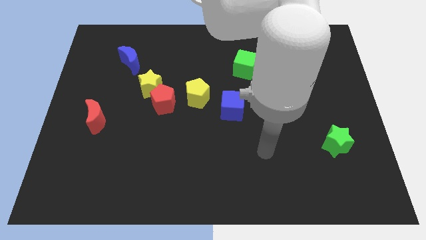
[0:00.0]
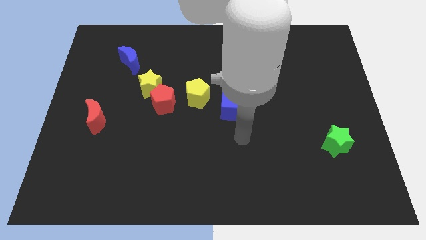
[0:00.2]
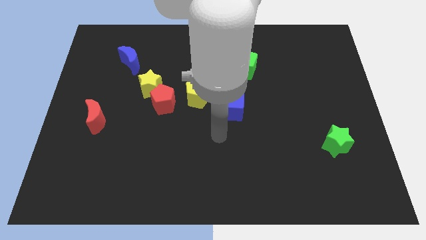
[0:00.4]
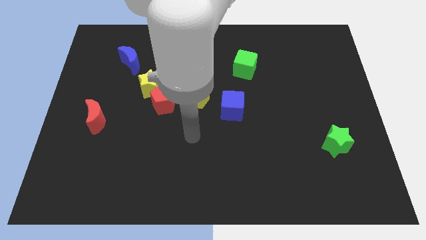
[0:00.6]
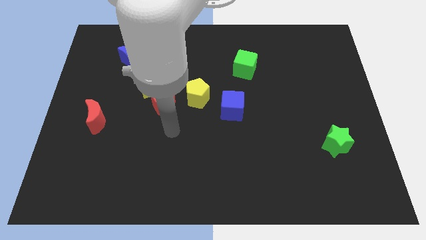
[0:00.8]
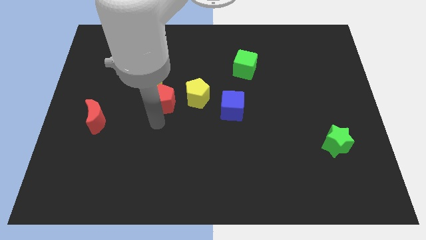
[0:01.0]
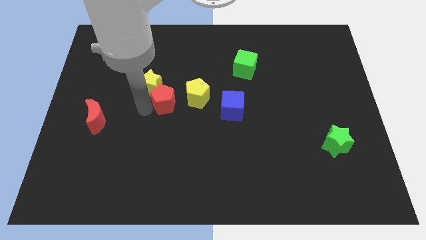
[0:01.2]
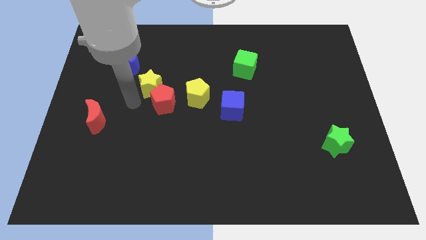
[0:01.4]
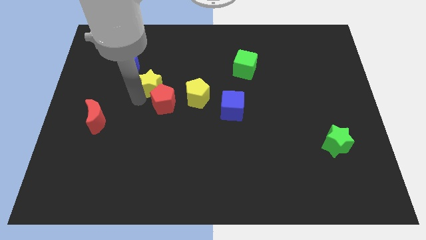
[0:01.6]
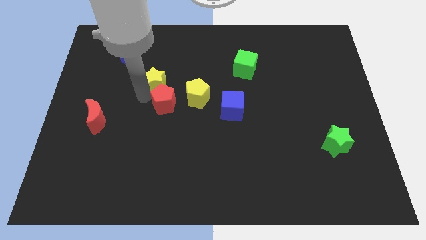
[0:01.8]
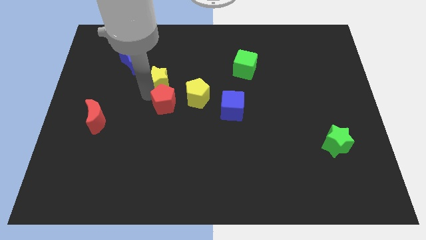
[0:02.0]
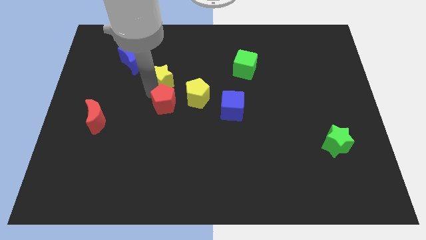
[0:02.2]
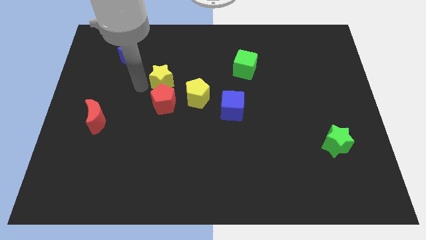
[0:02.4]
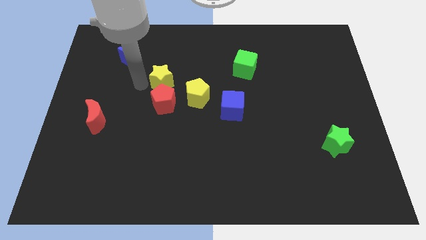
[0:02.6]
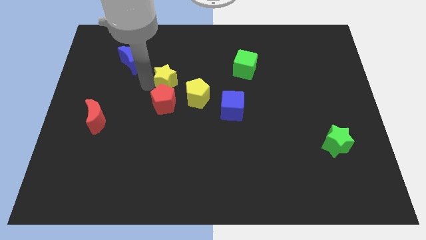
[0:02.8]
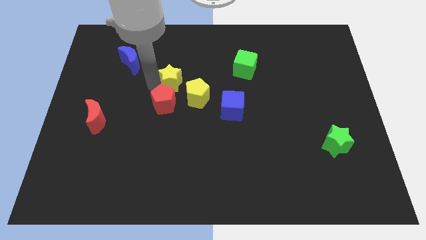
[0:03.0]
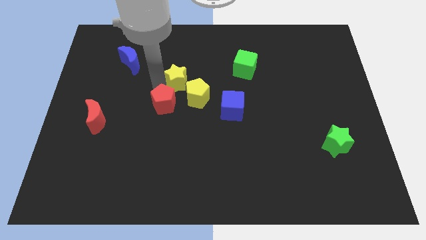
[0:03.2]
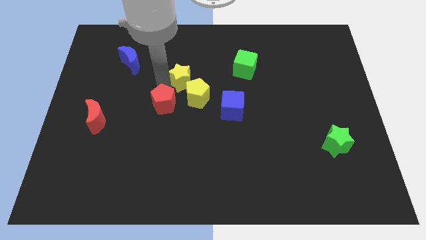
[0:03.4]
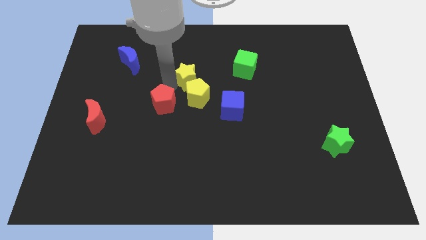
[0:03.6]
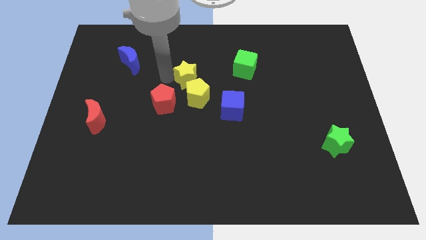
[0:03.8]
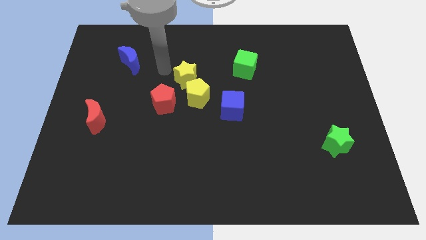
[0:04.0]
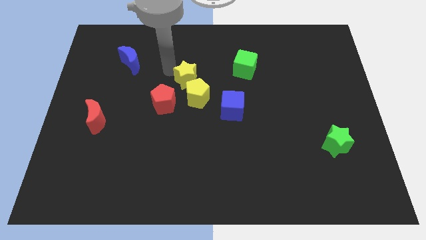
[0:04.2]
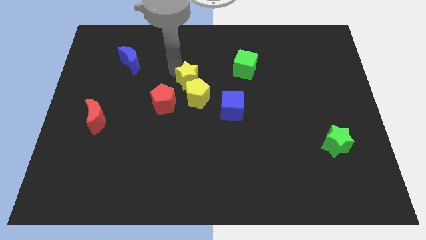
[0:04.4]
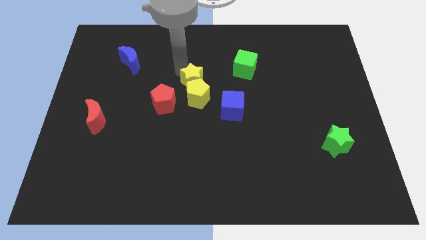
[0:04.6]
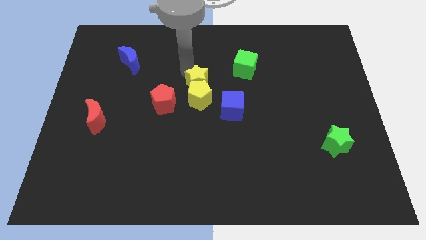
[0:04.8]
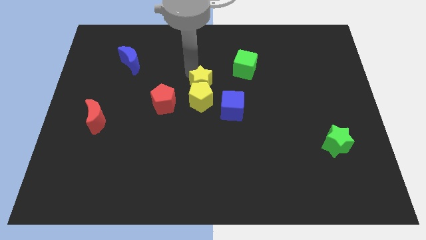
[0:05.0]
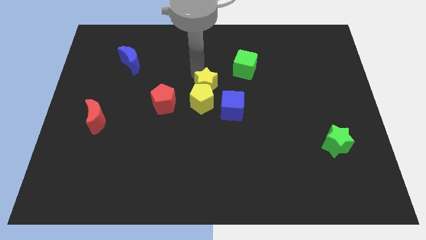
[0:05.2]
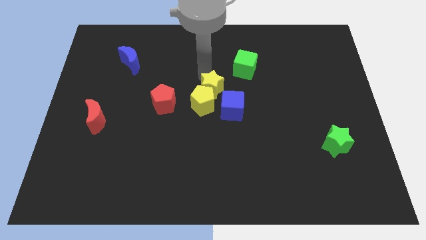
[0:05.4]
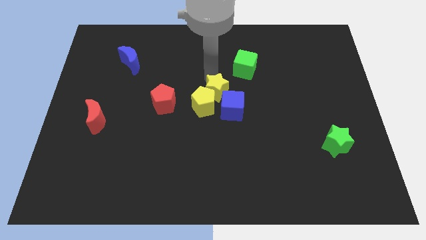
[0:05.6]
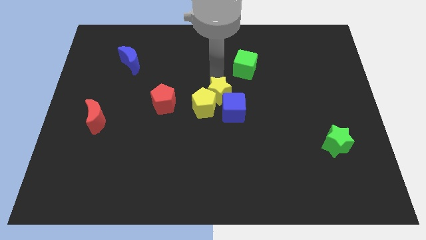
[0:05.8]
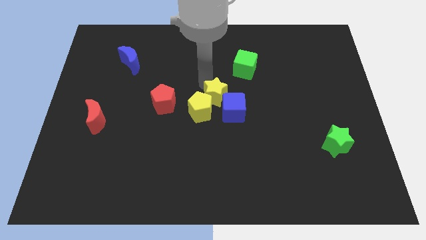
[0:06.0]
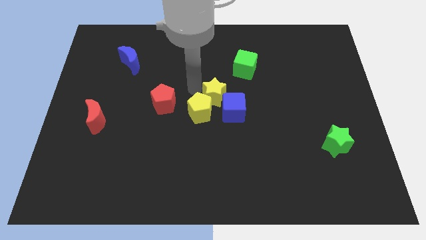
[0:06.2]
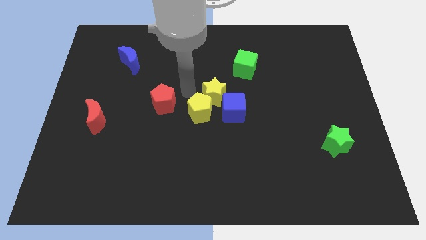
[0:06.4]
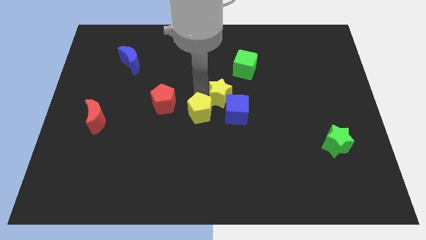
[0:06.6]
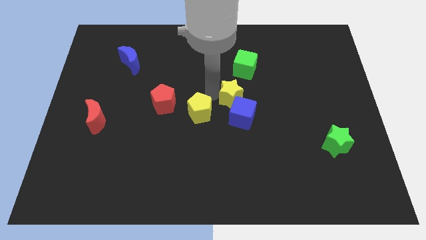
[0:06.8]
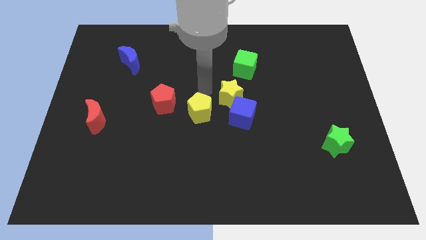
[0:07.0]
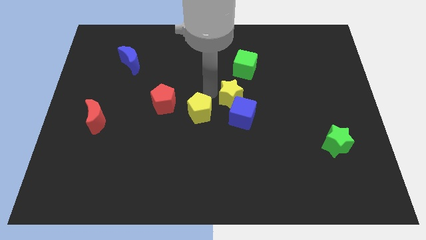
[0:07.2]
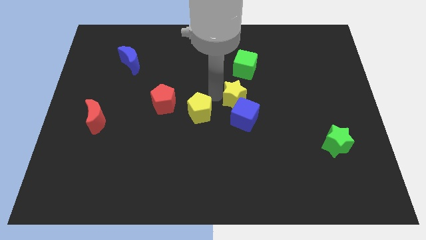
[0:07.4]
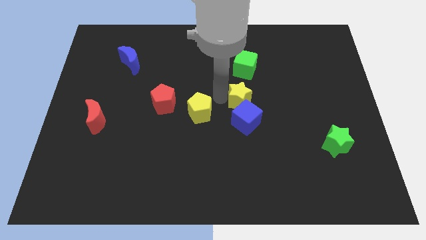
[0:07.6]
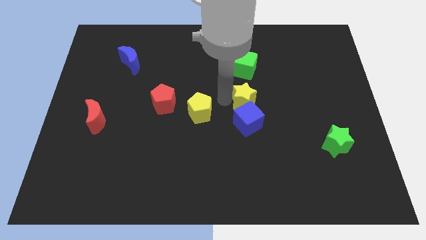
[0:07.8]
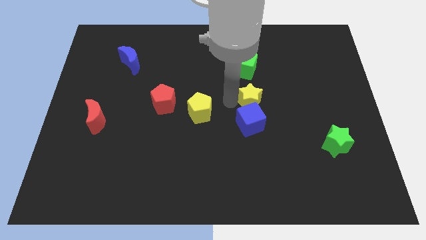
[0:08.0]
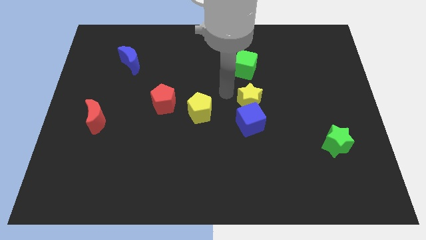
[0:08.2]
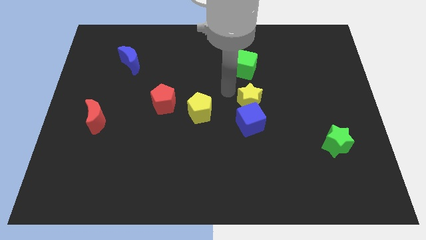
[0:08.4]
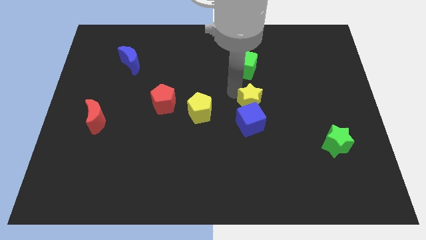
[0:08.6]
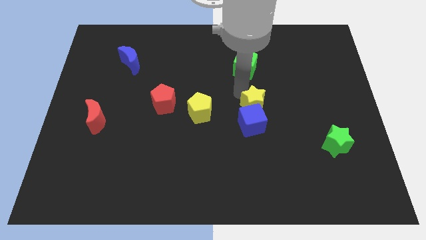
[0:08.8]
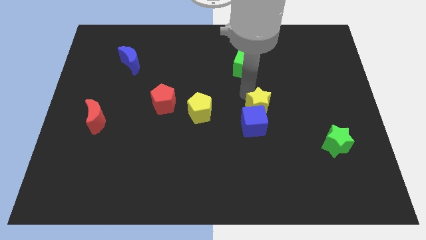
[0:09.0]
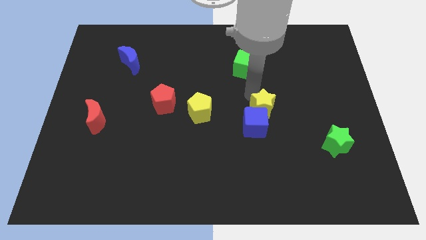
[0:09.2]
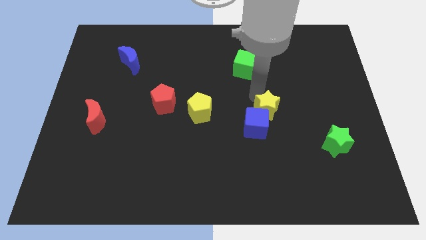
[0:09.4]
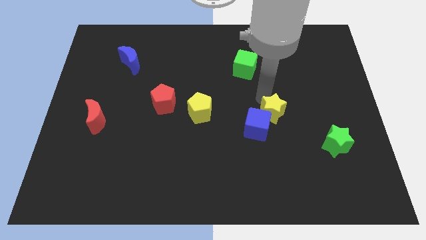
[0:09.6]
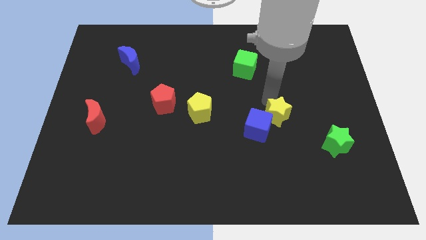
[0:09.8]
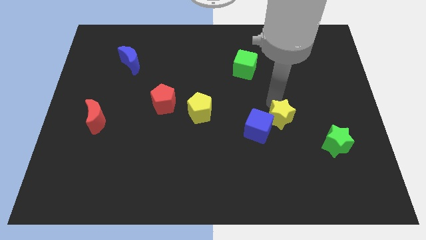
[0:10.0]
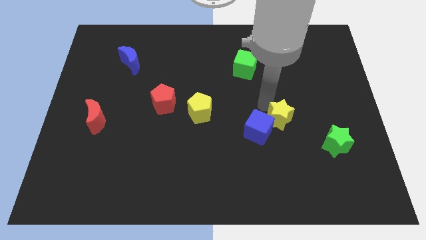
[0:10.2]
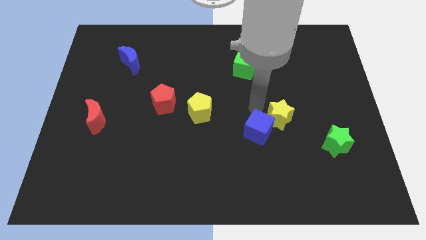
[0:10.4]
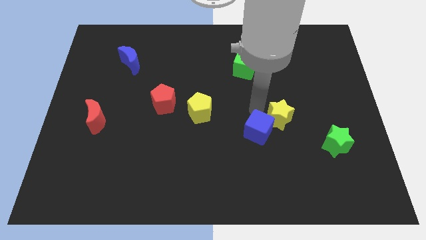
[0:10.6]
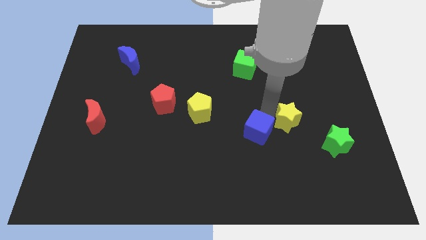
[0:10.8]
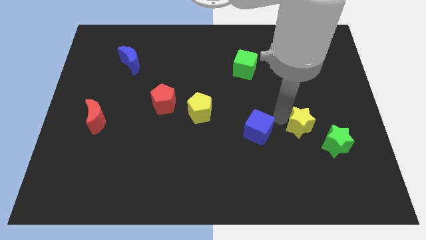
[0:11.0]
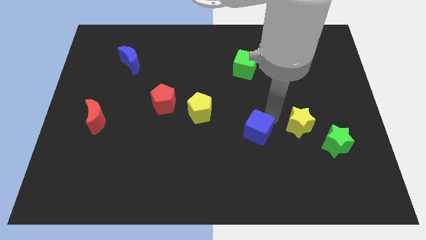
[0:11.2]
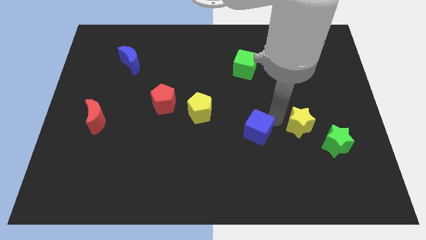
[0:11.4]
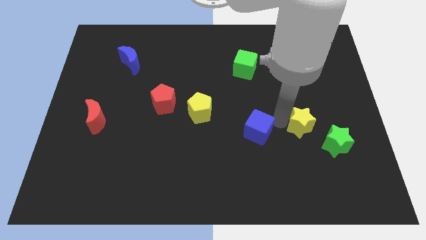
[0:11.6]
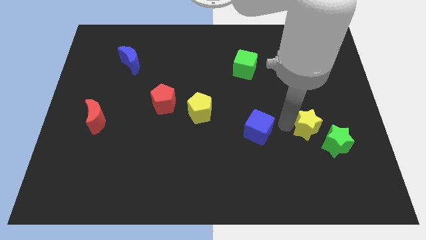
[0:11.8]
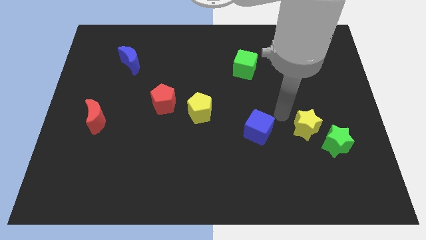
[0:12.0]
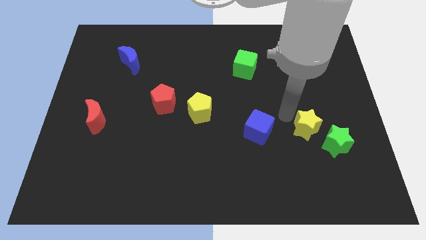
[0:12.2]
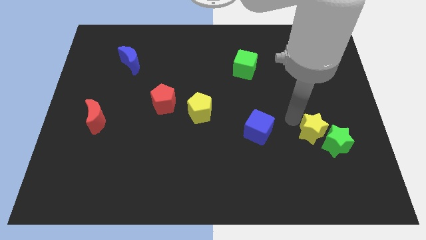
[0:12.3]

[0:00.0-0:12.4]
push the yellow star close to the green star
